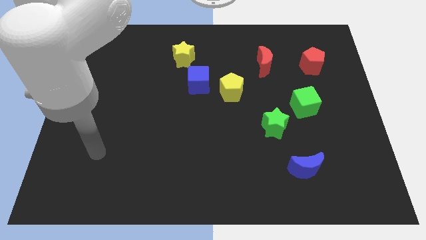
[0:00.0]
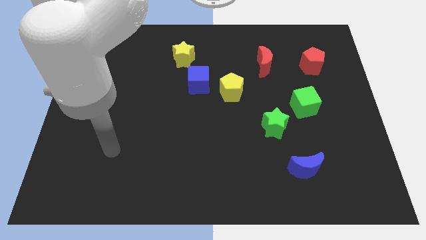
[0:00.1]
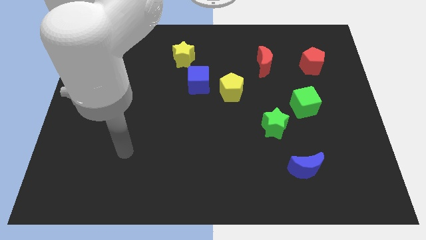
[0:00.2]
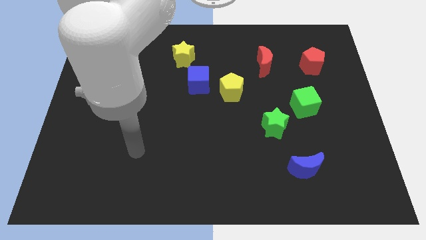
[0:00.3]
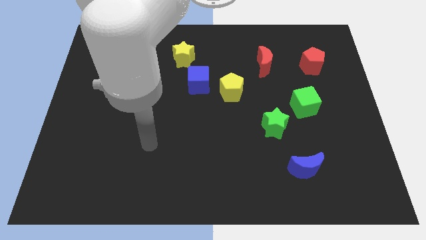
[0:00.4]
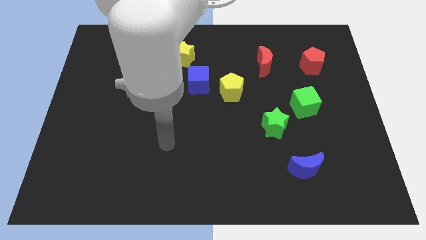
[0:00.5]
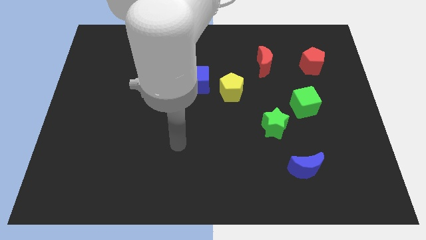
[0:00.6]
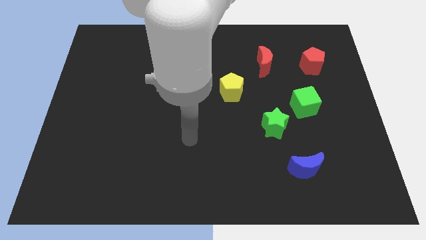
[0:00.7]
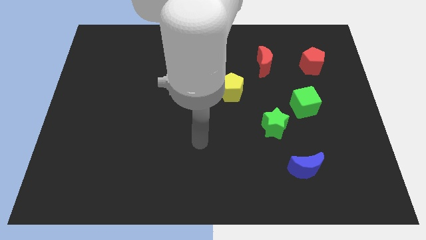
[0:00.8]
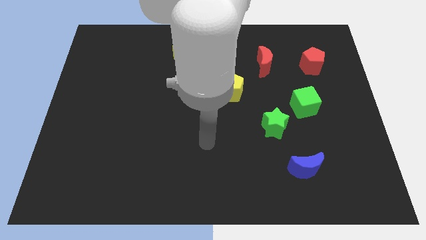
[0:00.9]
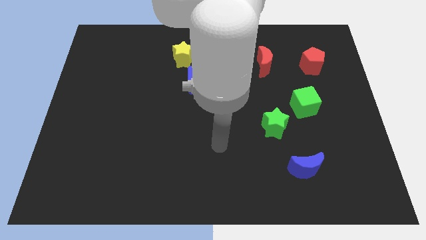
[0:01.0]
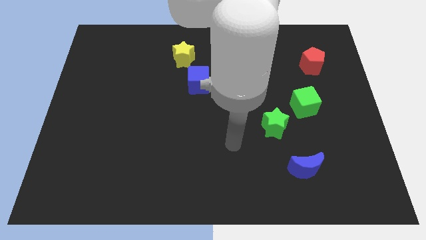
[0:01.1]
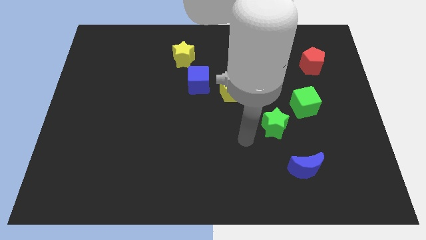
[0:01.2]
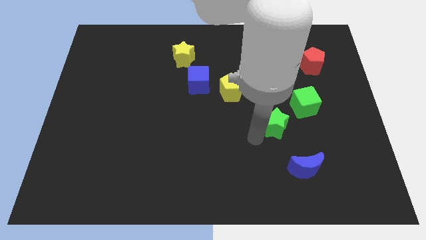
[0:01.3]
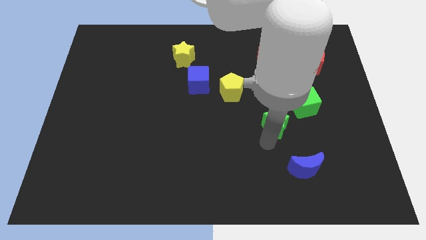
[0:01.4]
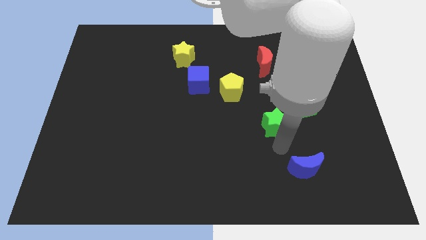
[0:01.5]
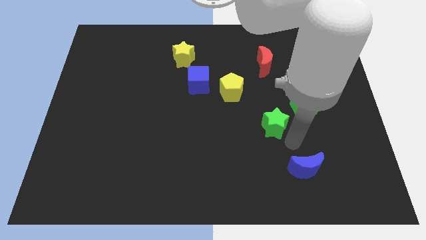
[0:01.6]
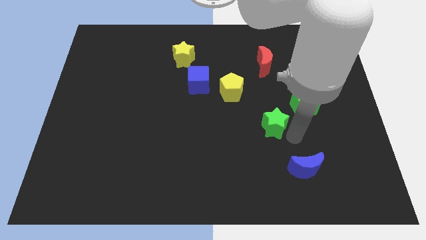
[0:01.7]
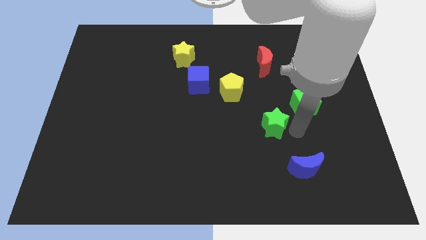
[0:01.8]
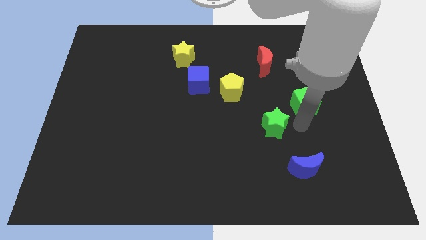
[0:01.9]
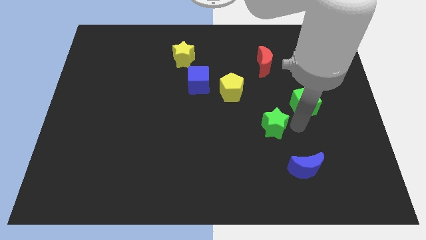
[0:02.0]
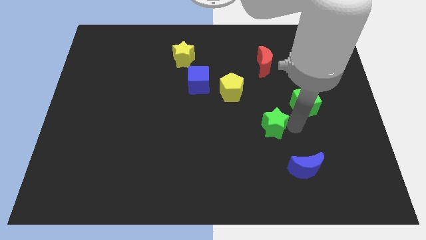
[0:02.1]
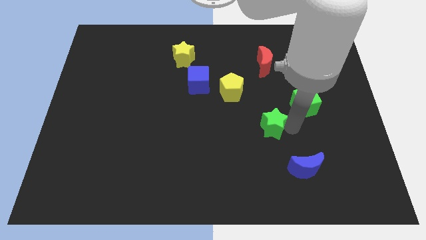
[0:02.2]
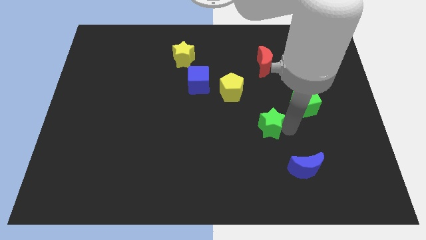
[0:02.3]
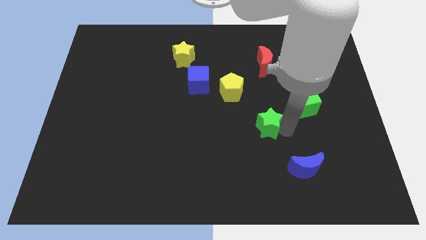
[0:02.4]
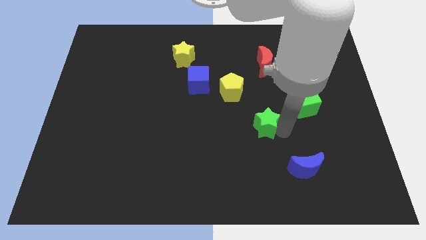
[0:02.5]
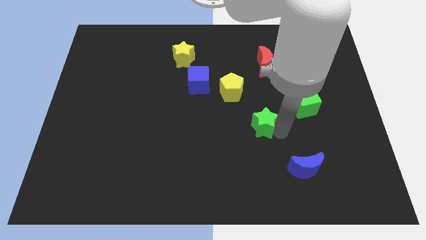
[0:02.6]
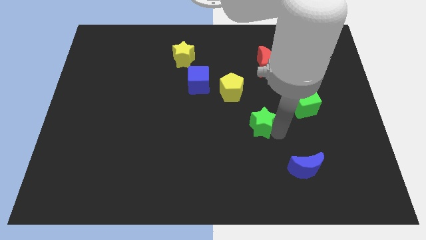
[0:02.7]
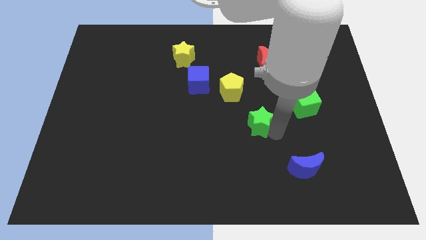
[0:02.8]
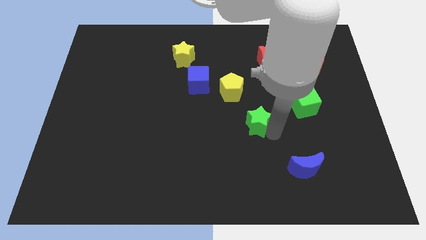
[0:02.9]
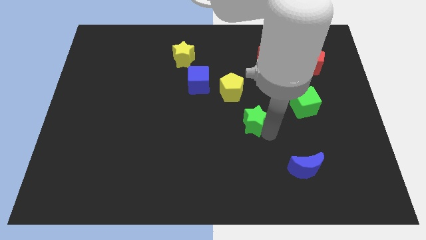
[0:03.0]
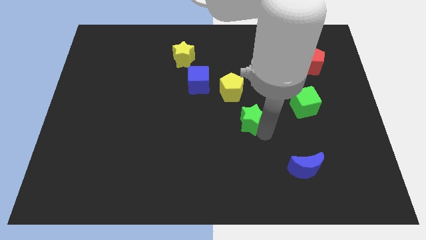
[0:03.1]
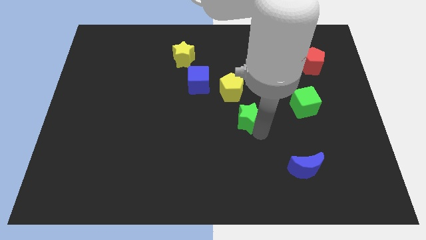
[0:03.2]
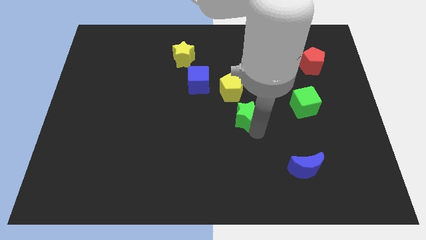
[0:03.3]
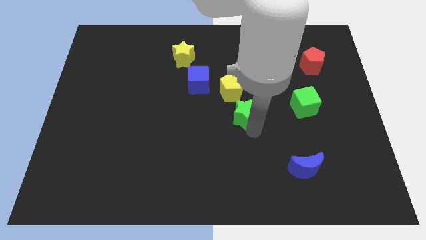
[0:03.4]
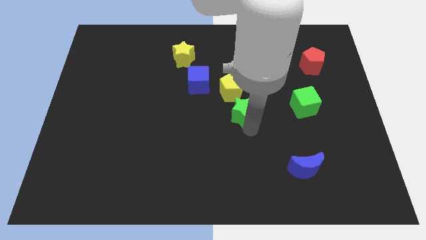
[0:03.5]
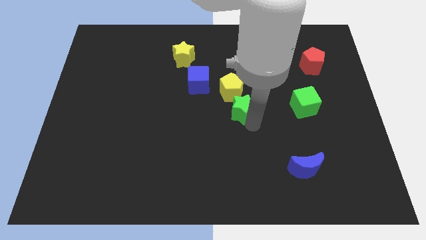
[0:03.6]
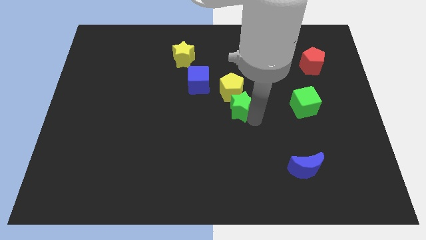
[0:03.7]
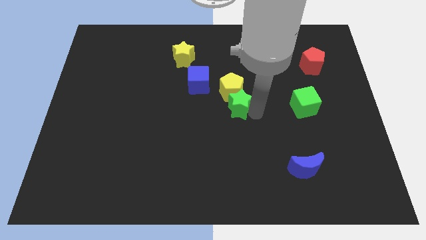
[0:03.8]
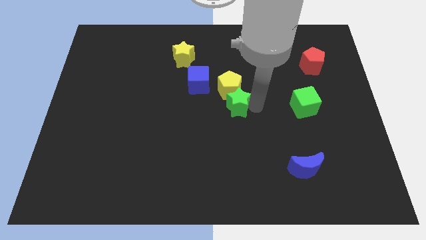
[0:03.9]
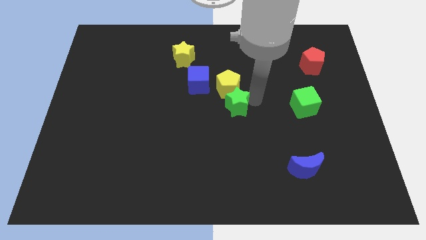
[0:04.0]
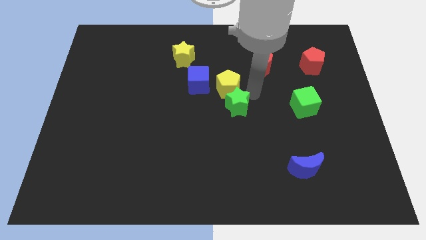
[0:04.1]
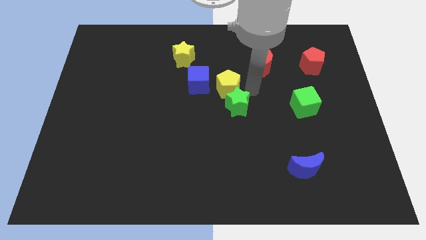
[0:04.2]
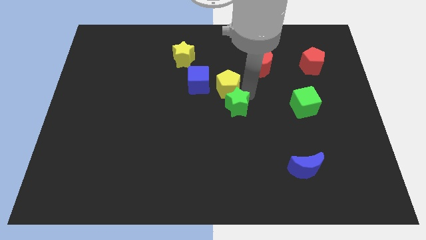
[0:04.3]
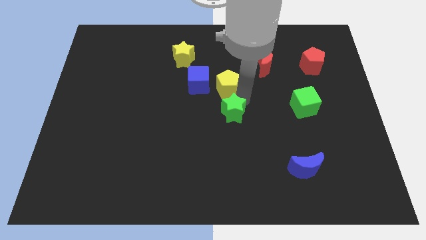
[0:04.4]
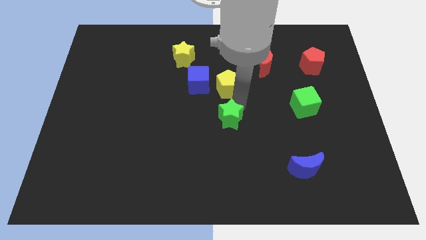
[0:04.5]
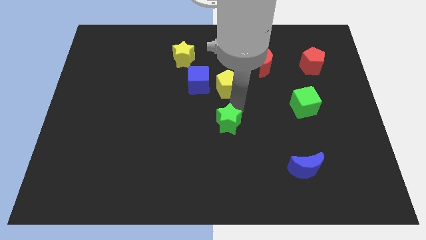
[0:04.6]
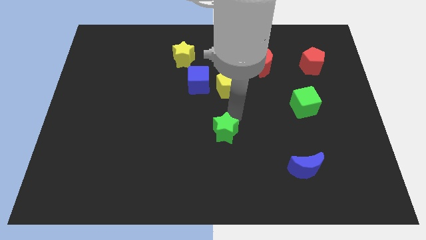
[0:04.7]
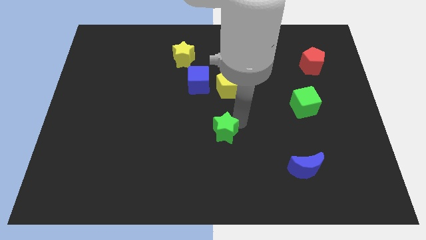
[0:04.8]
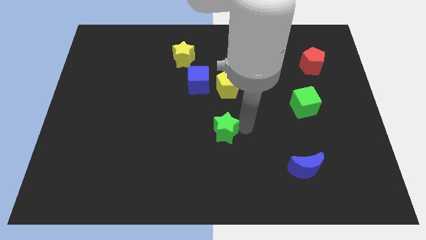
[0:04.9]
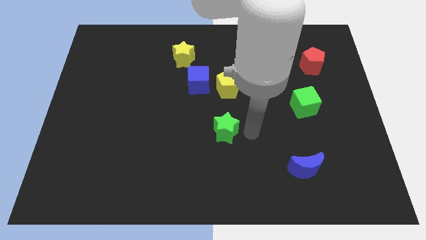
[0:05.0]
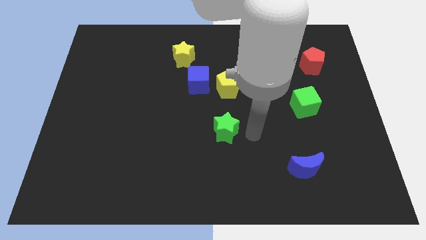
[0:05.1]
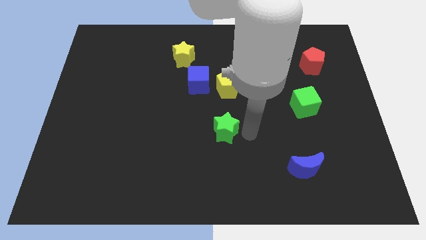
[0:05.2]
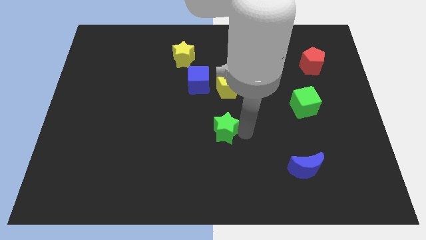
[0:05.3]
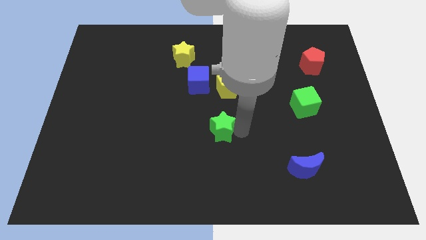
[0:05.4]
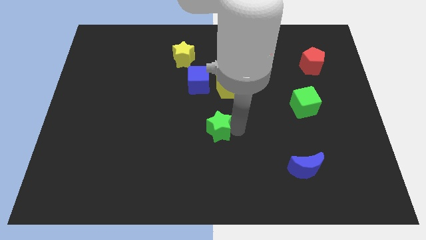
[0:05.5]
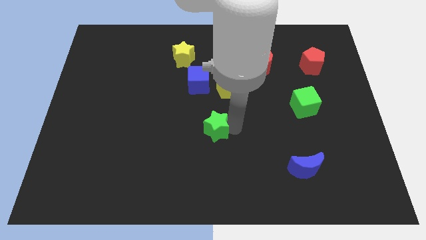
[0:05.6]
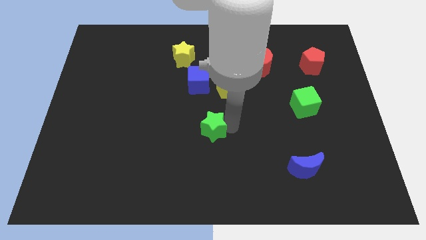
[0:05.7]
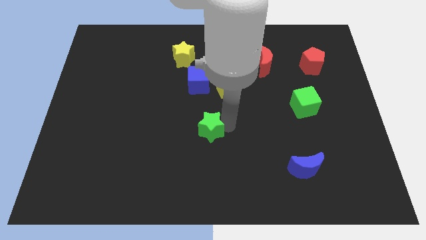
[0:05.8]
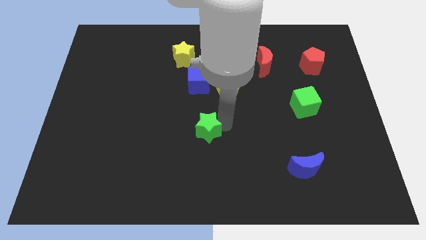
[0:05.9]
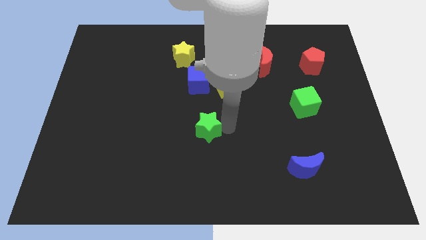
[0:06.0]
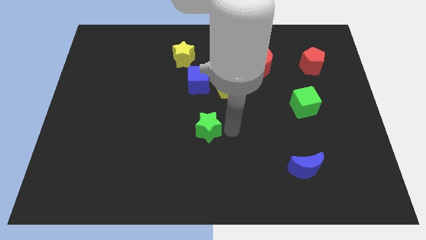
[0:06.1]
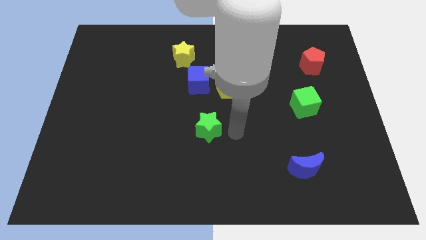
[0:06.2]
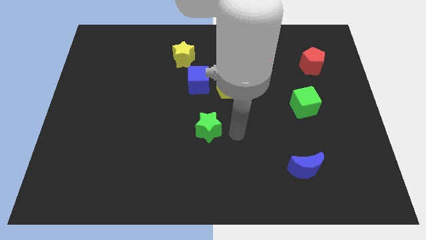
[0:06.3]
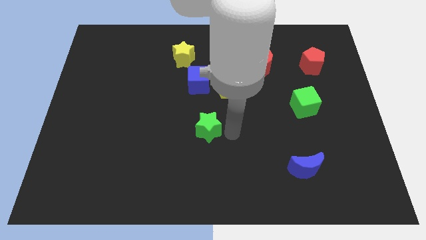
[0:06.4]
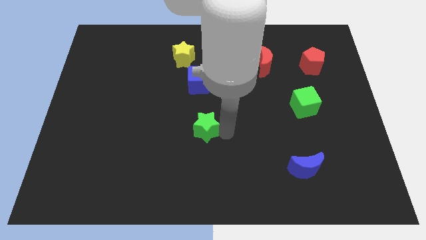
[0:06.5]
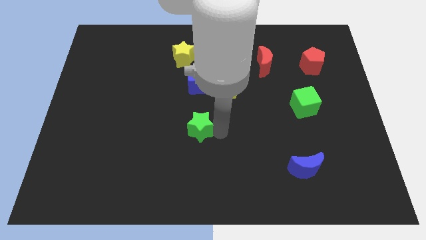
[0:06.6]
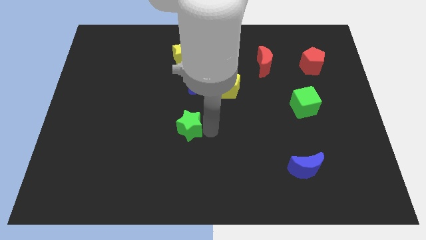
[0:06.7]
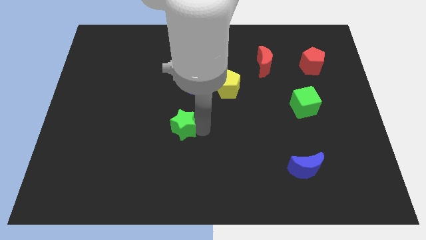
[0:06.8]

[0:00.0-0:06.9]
slide the green star left

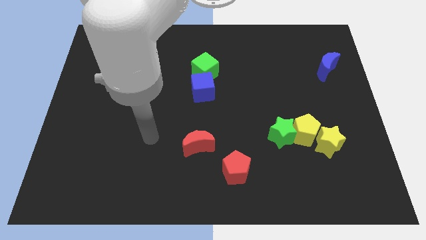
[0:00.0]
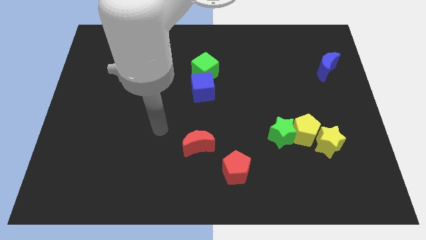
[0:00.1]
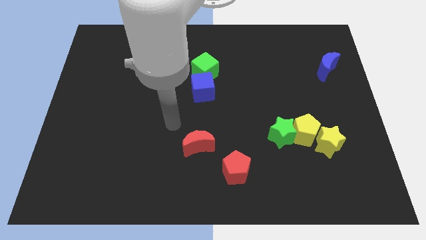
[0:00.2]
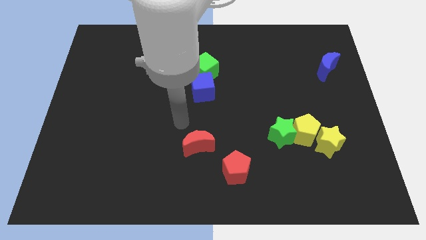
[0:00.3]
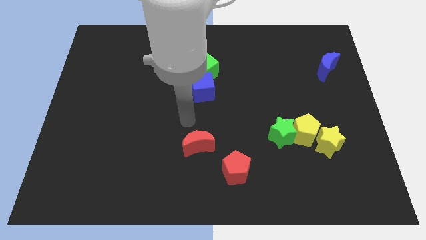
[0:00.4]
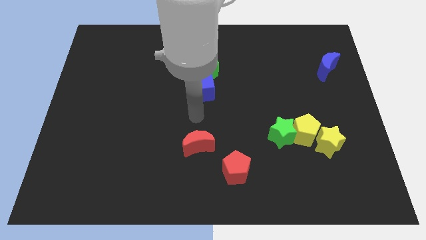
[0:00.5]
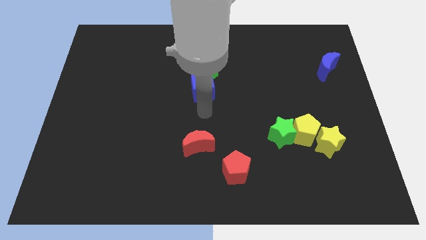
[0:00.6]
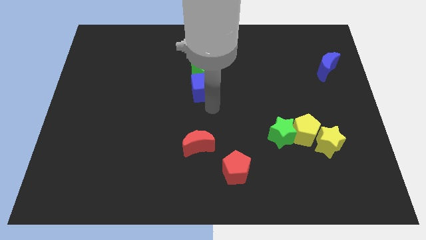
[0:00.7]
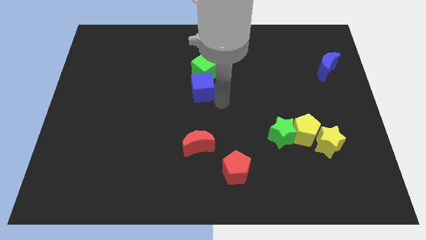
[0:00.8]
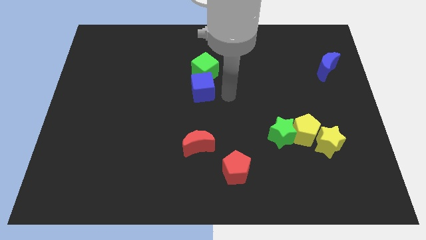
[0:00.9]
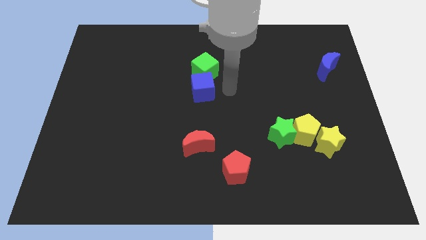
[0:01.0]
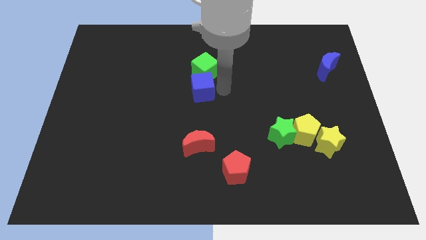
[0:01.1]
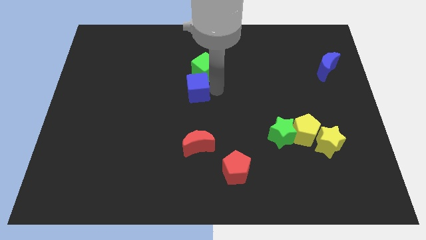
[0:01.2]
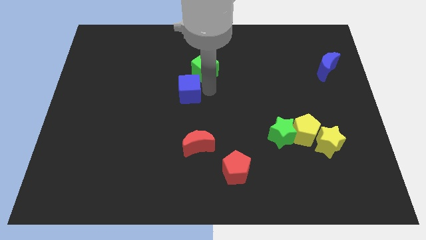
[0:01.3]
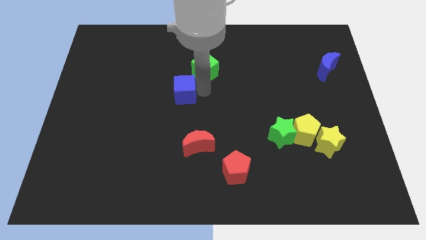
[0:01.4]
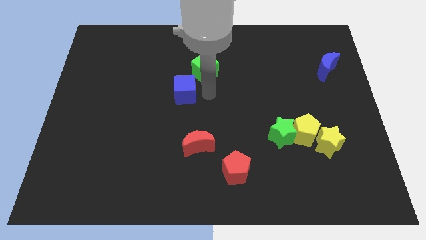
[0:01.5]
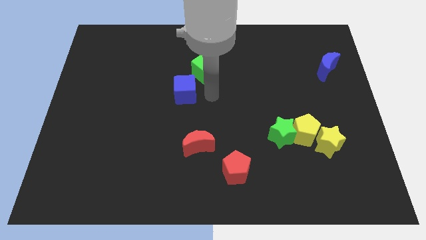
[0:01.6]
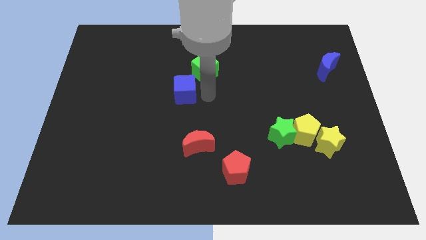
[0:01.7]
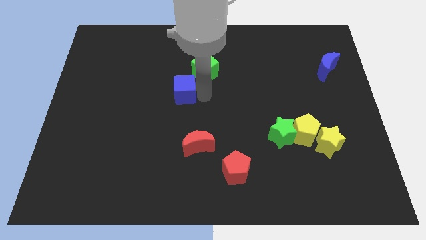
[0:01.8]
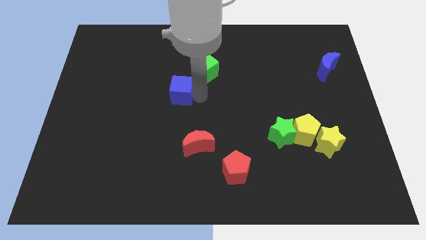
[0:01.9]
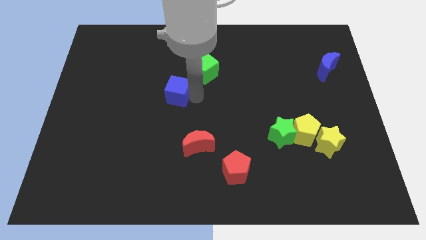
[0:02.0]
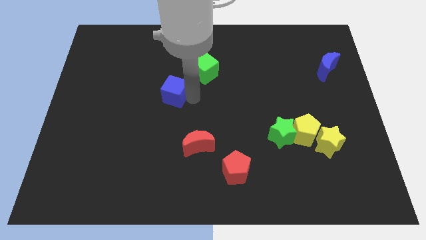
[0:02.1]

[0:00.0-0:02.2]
slightly slide the blue cube left
